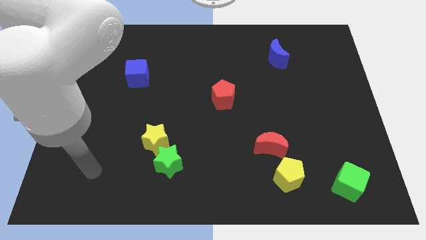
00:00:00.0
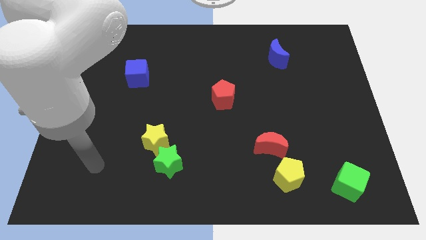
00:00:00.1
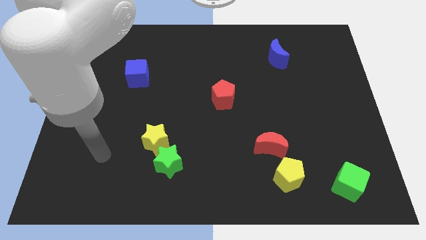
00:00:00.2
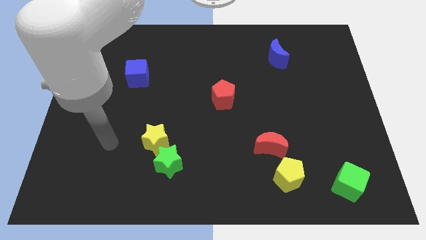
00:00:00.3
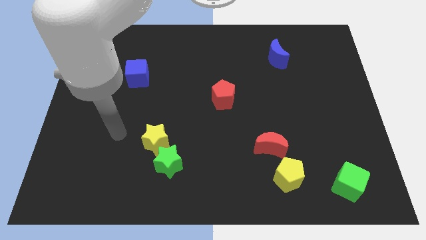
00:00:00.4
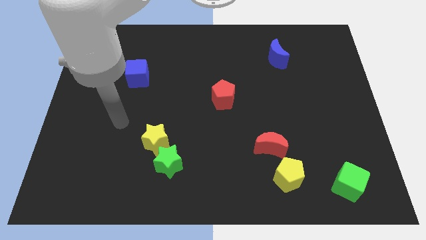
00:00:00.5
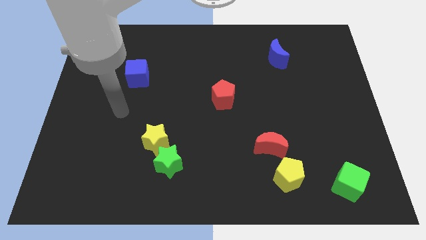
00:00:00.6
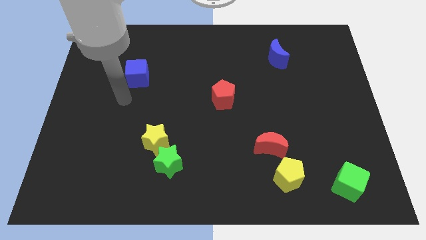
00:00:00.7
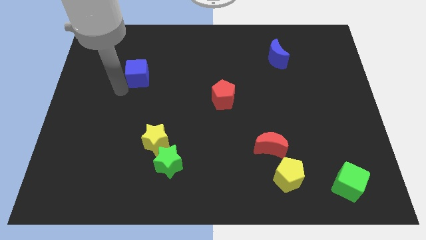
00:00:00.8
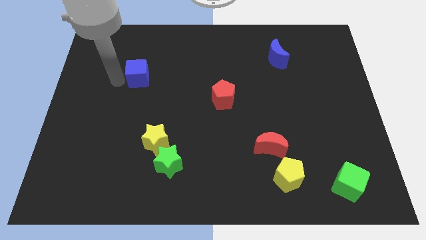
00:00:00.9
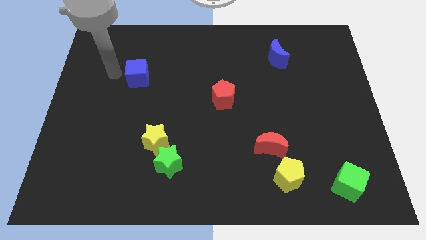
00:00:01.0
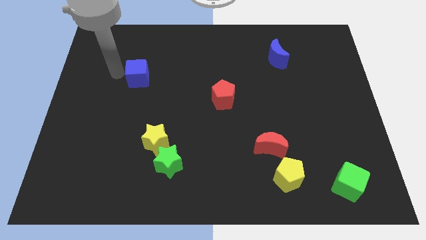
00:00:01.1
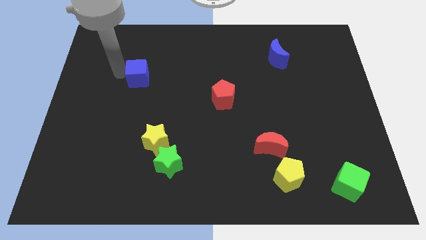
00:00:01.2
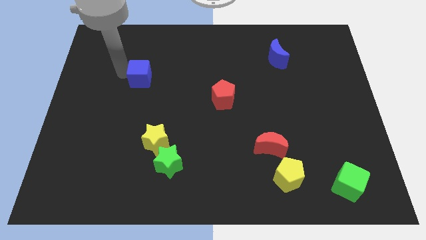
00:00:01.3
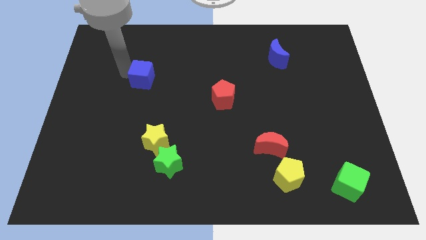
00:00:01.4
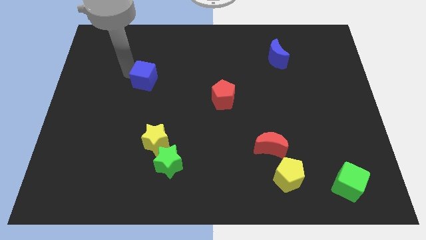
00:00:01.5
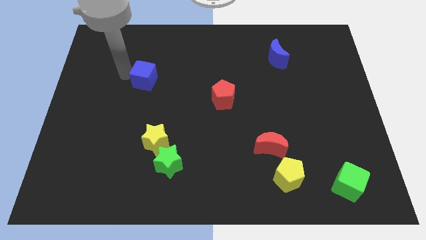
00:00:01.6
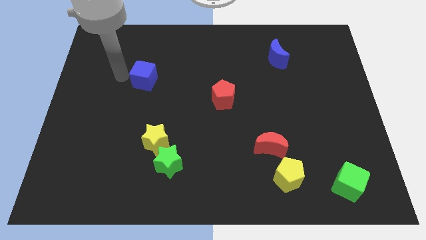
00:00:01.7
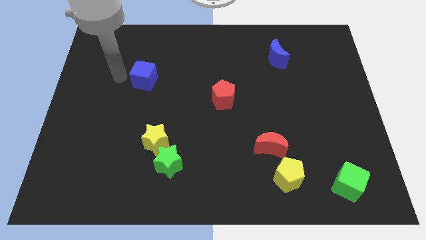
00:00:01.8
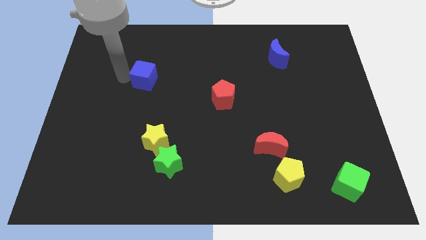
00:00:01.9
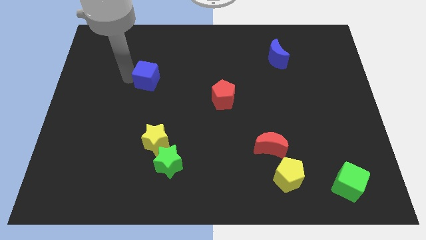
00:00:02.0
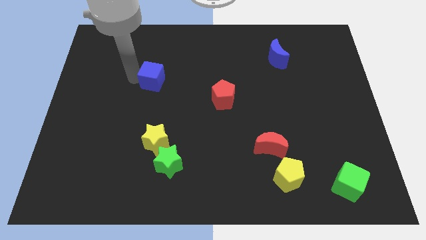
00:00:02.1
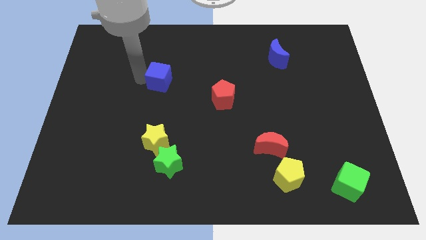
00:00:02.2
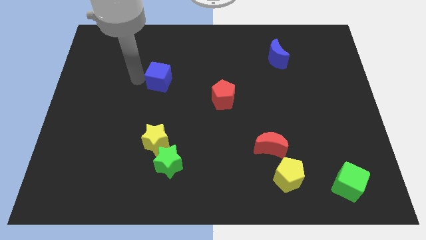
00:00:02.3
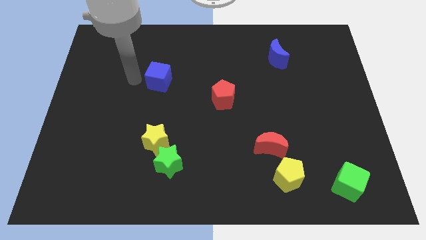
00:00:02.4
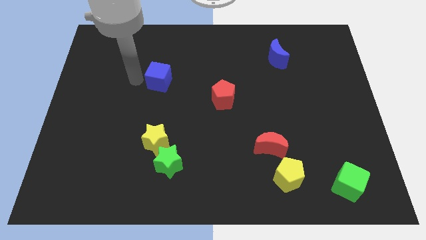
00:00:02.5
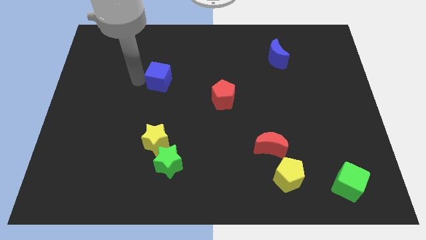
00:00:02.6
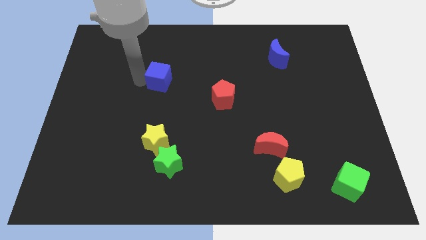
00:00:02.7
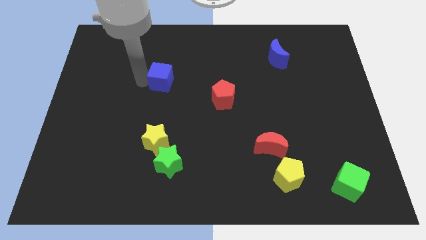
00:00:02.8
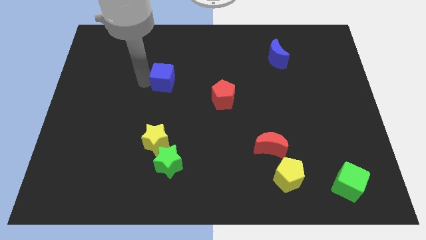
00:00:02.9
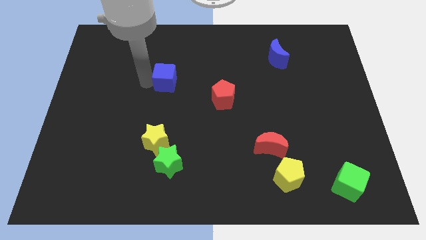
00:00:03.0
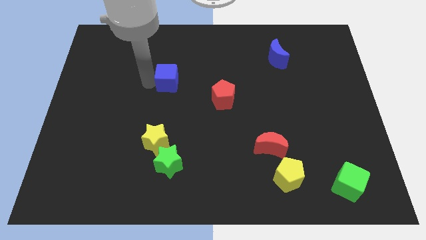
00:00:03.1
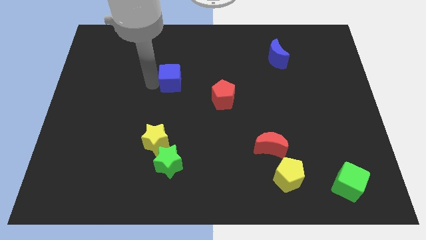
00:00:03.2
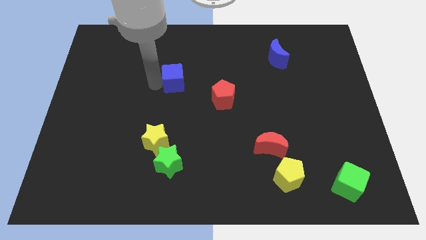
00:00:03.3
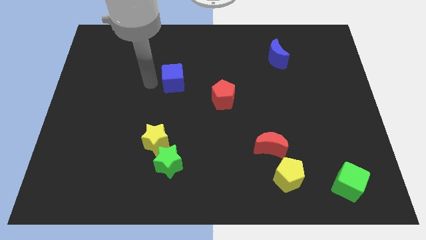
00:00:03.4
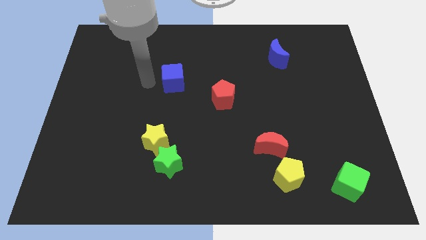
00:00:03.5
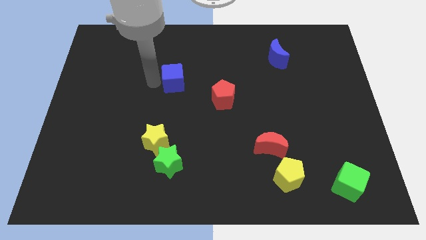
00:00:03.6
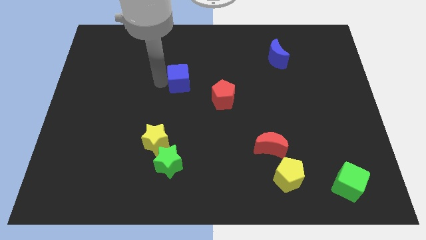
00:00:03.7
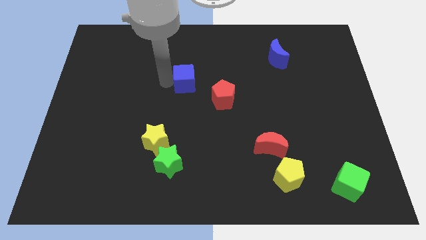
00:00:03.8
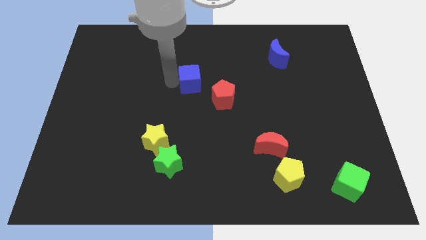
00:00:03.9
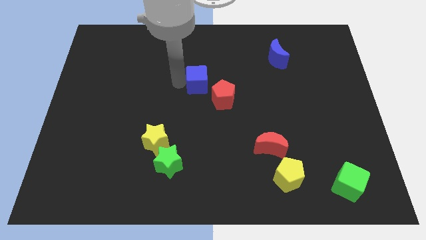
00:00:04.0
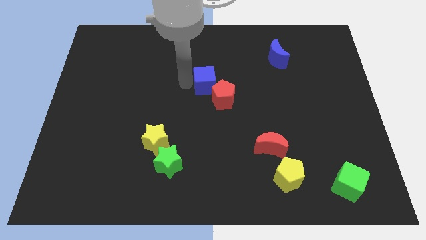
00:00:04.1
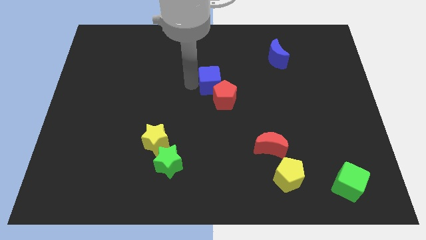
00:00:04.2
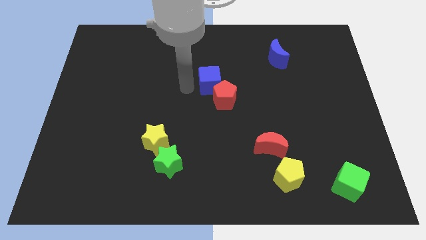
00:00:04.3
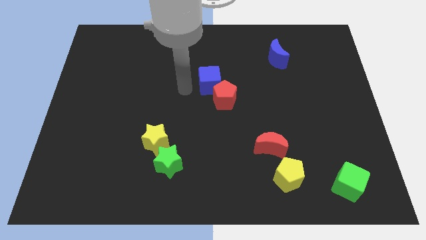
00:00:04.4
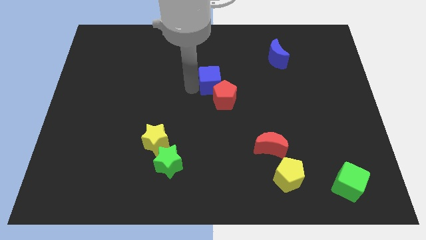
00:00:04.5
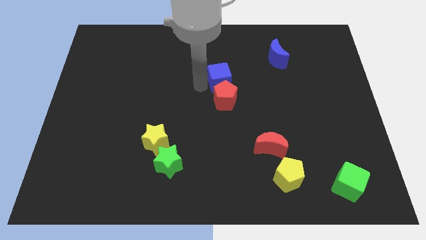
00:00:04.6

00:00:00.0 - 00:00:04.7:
slide the blue cube to the right

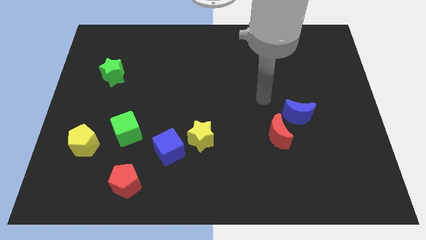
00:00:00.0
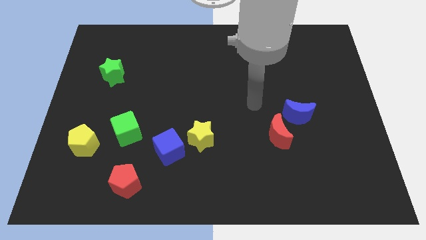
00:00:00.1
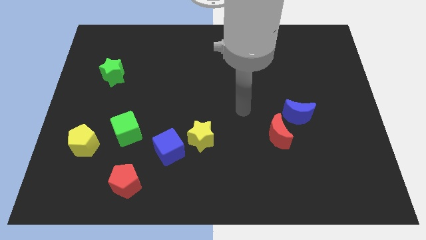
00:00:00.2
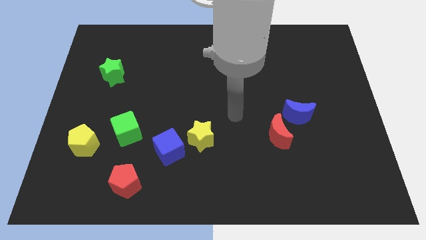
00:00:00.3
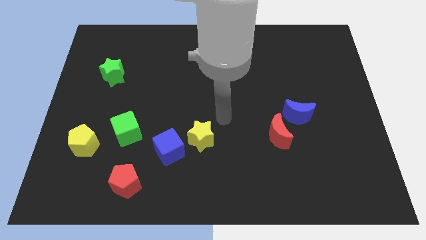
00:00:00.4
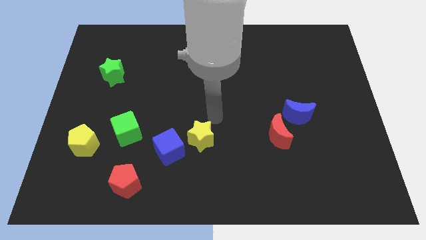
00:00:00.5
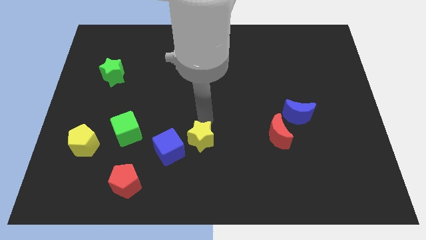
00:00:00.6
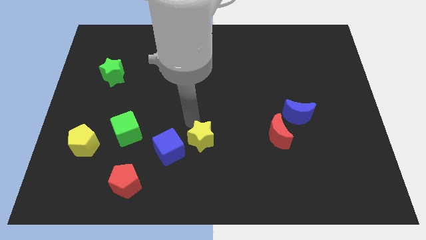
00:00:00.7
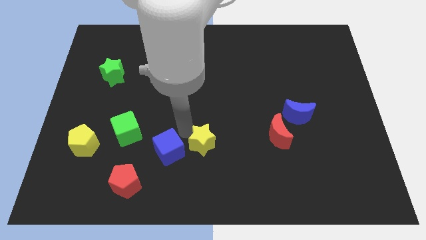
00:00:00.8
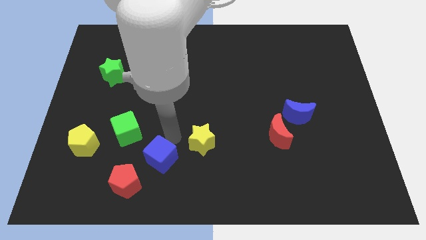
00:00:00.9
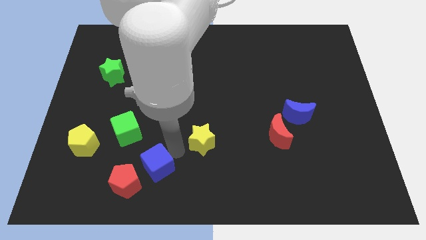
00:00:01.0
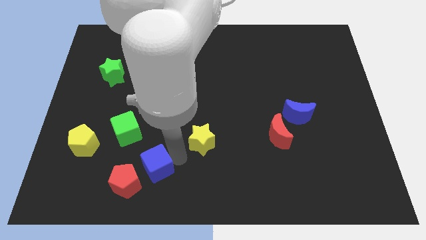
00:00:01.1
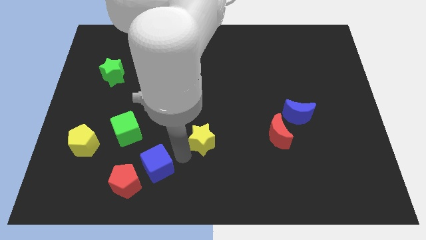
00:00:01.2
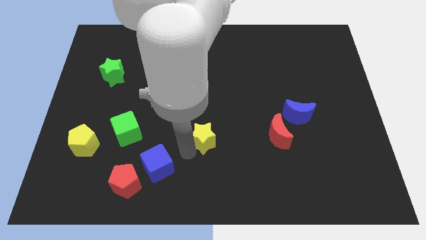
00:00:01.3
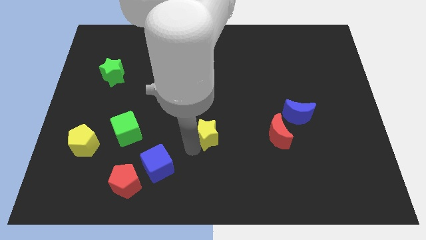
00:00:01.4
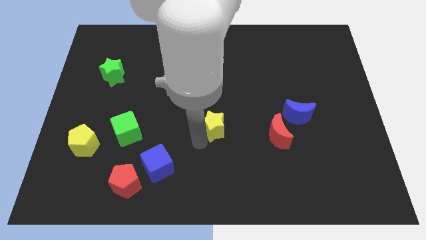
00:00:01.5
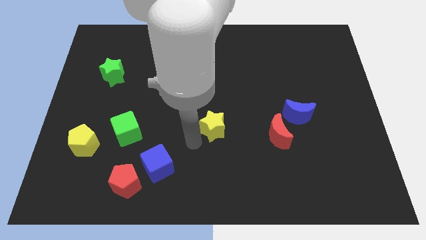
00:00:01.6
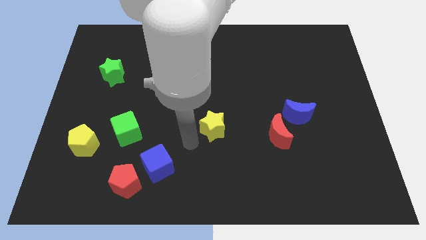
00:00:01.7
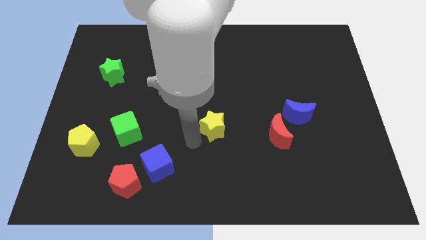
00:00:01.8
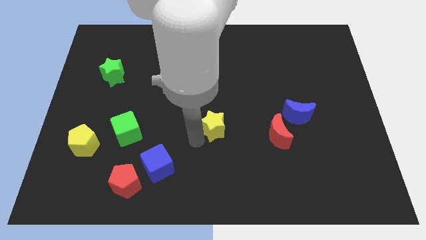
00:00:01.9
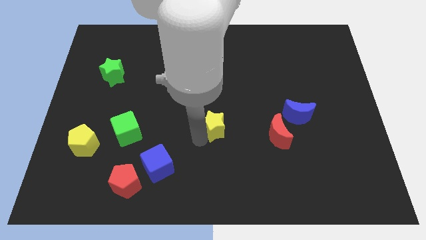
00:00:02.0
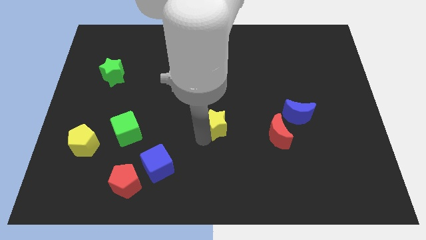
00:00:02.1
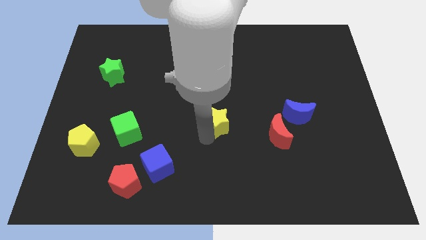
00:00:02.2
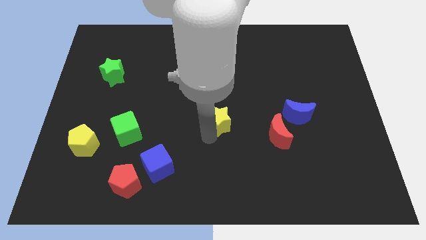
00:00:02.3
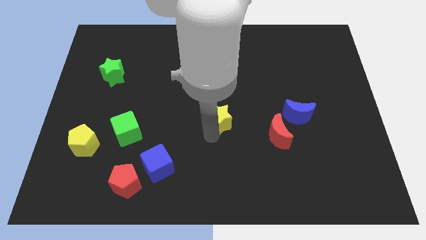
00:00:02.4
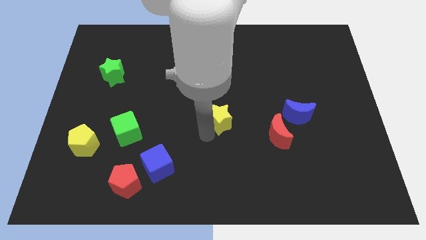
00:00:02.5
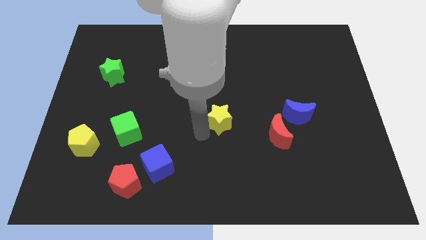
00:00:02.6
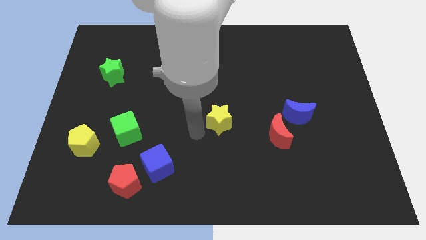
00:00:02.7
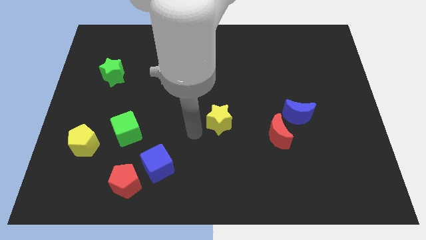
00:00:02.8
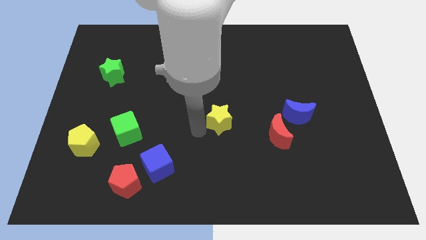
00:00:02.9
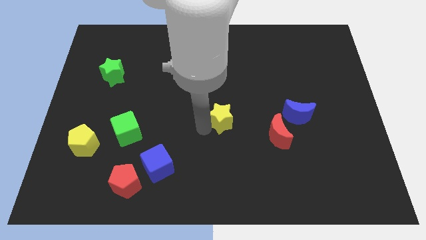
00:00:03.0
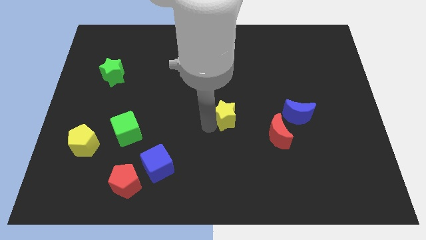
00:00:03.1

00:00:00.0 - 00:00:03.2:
move the yellow star somewhat up and to the right diagonally
